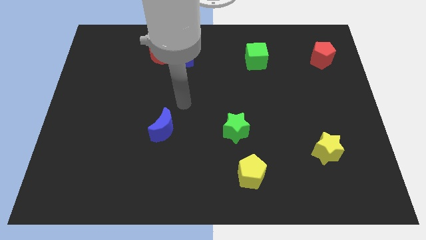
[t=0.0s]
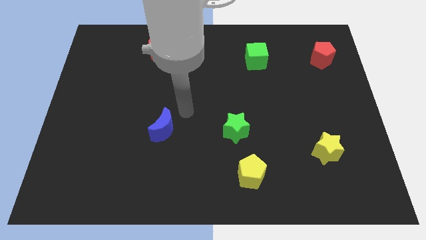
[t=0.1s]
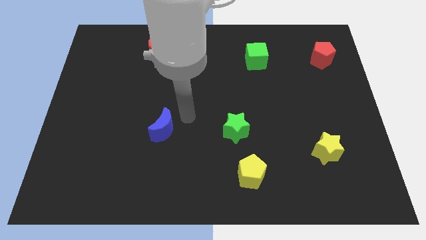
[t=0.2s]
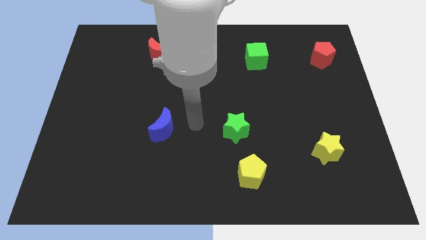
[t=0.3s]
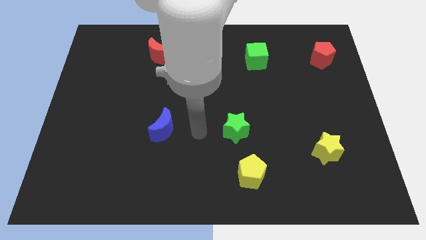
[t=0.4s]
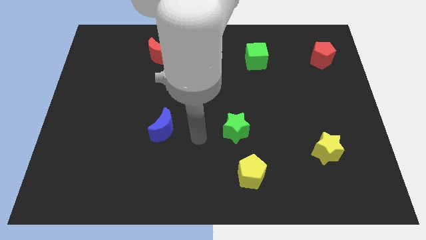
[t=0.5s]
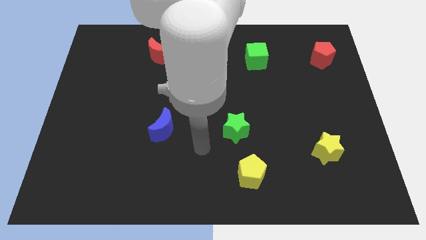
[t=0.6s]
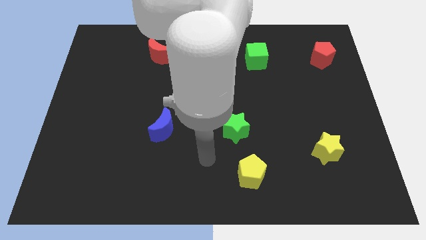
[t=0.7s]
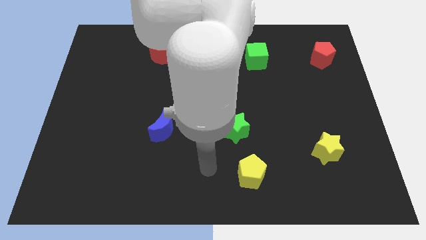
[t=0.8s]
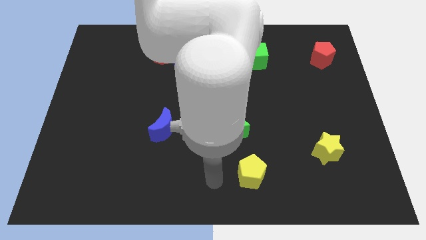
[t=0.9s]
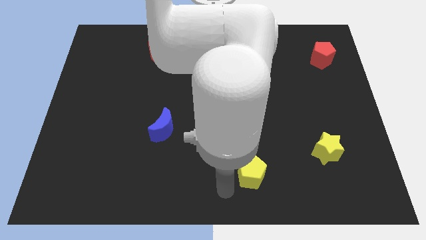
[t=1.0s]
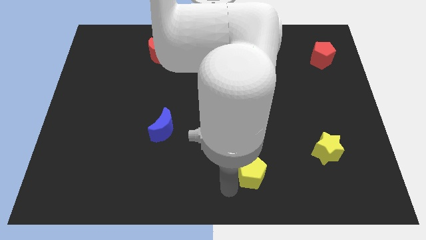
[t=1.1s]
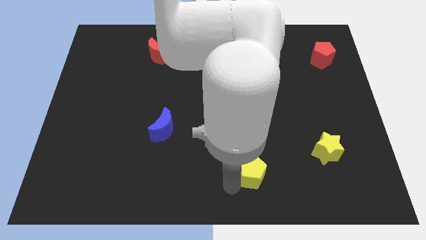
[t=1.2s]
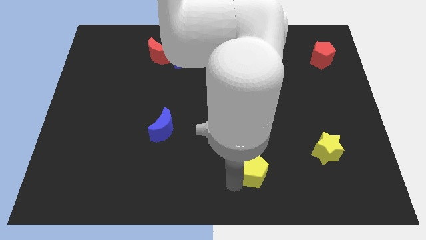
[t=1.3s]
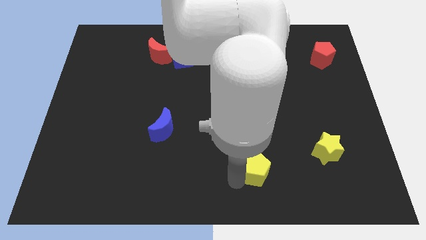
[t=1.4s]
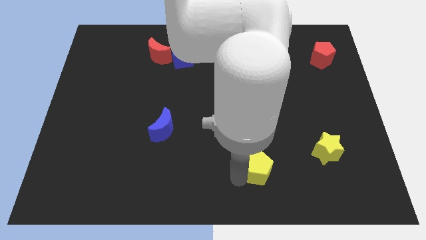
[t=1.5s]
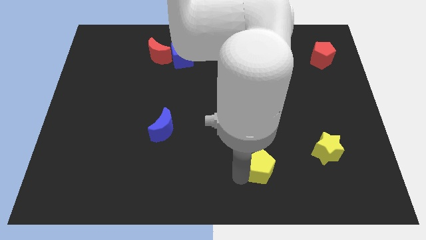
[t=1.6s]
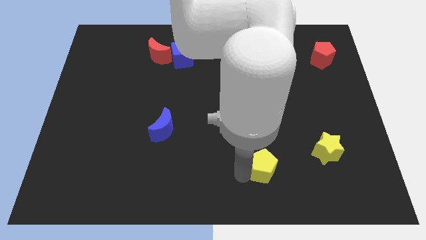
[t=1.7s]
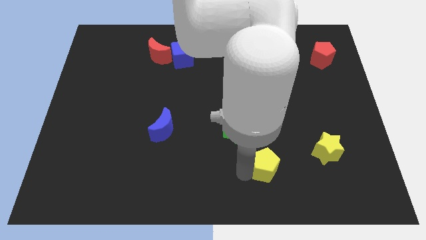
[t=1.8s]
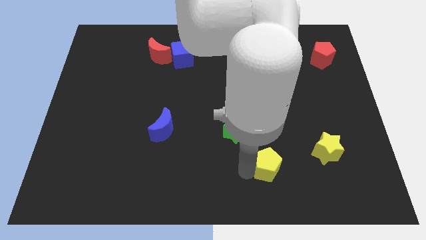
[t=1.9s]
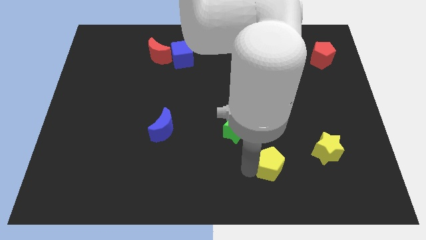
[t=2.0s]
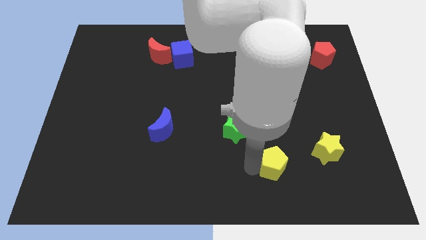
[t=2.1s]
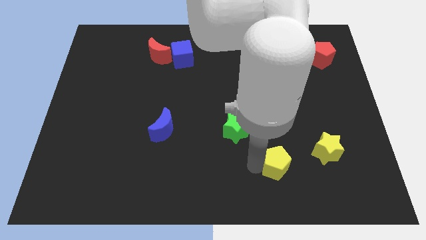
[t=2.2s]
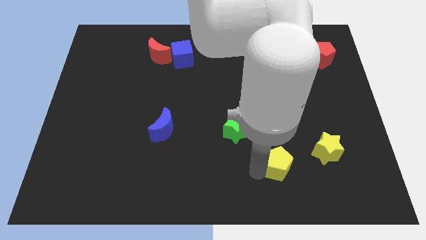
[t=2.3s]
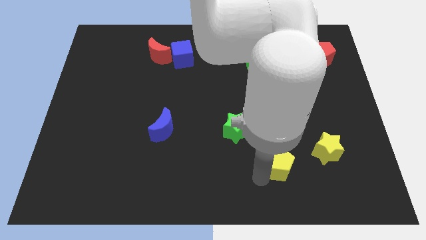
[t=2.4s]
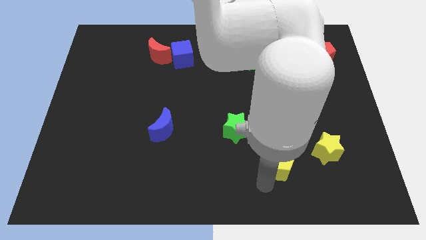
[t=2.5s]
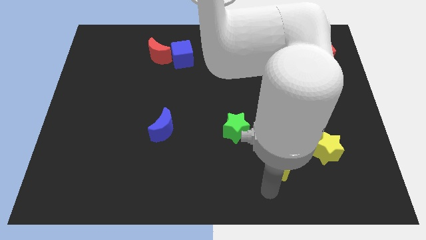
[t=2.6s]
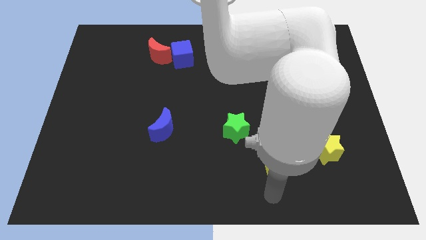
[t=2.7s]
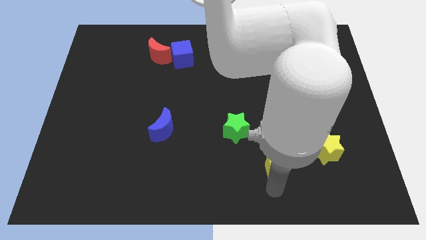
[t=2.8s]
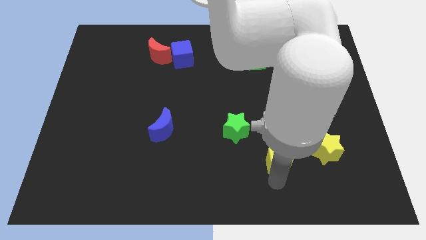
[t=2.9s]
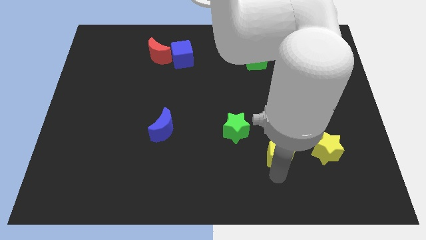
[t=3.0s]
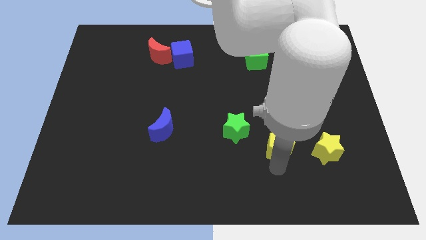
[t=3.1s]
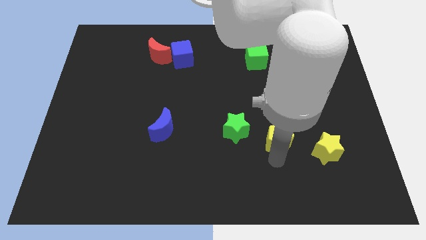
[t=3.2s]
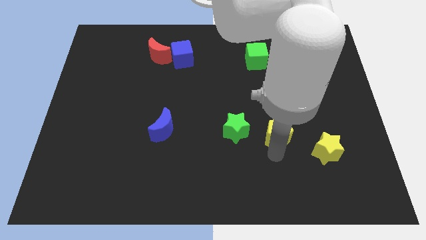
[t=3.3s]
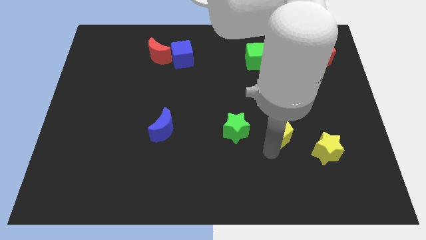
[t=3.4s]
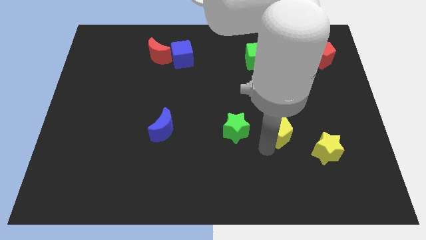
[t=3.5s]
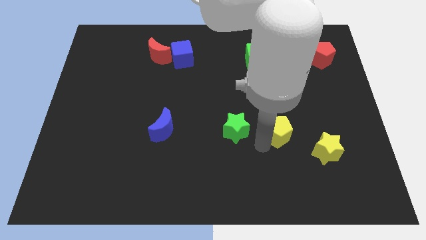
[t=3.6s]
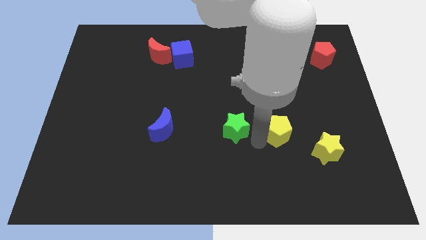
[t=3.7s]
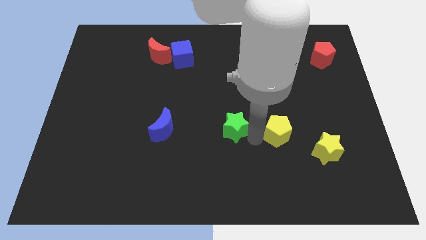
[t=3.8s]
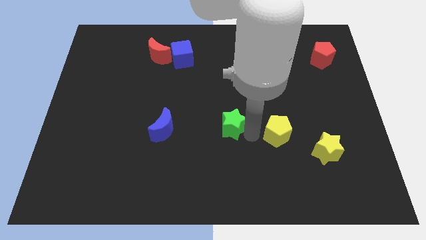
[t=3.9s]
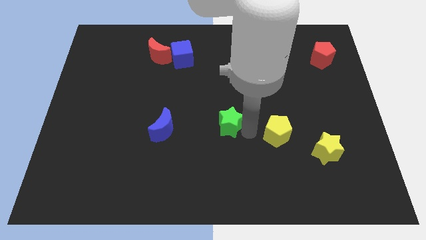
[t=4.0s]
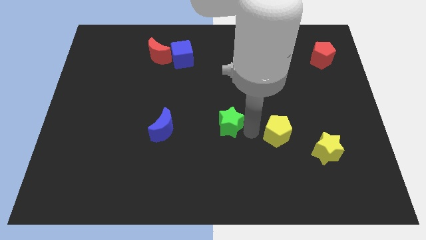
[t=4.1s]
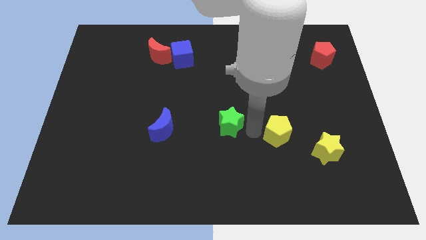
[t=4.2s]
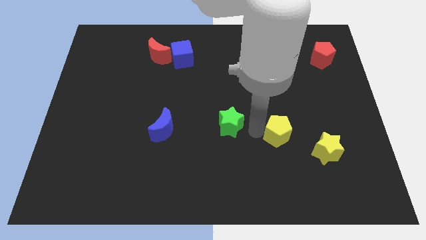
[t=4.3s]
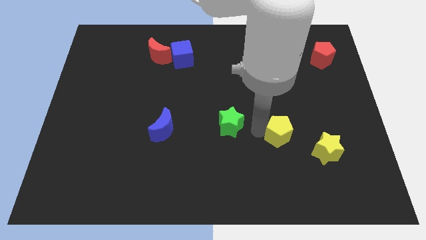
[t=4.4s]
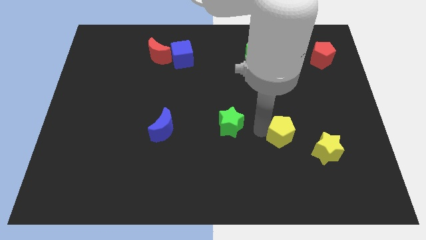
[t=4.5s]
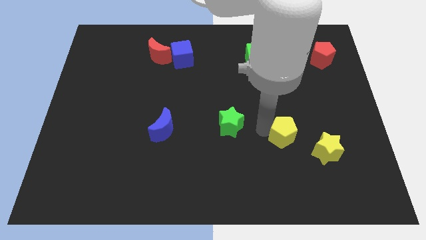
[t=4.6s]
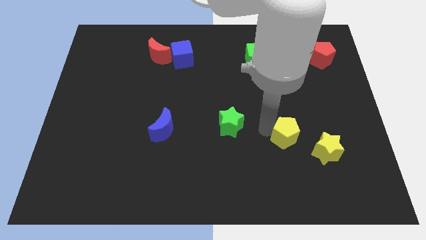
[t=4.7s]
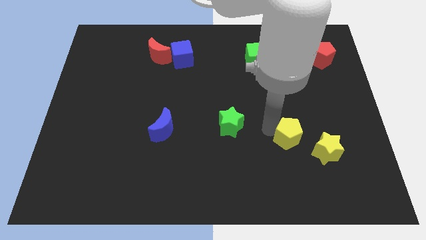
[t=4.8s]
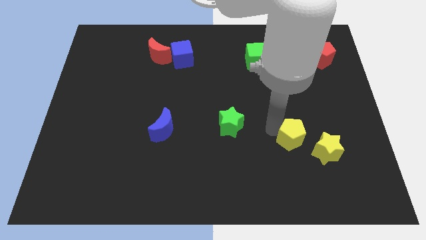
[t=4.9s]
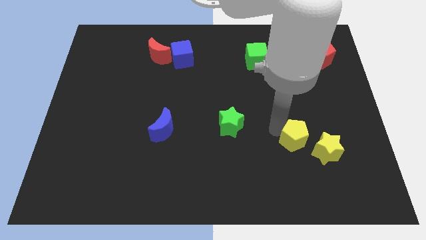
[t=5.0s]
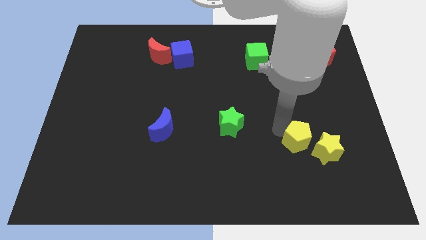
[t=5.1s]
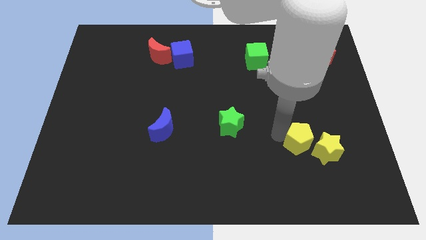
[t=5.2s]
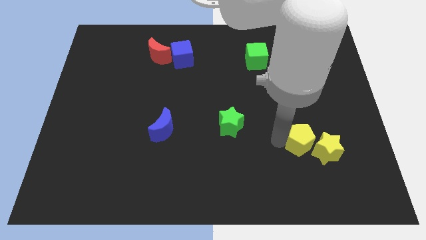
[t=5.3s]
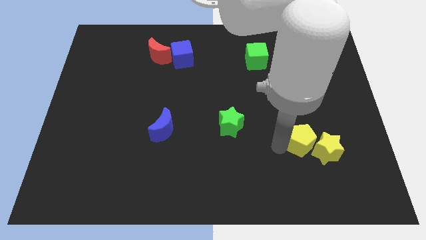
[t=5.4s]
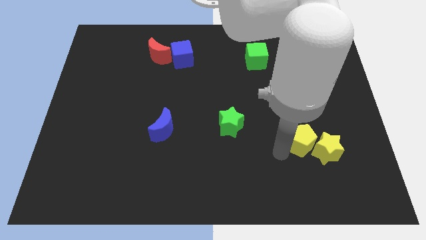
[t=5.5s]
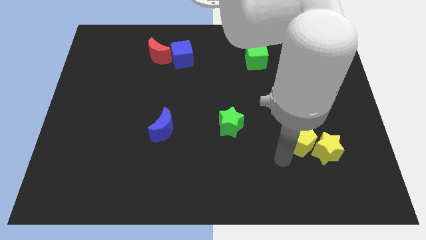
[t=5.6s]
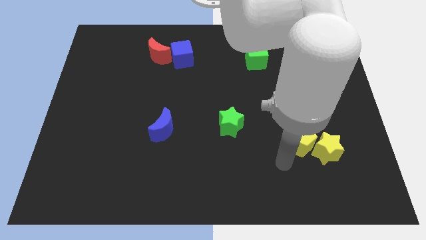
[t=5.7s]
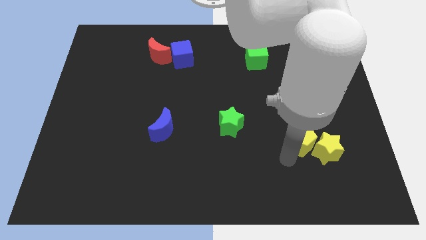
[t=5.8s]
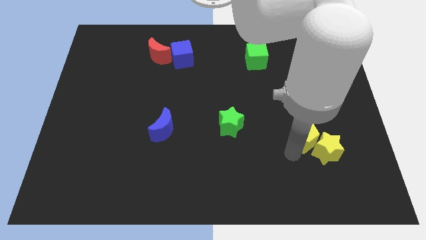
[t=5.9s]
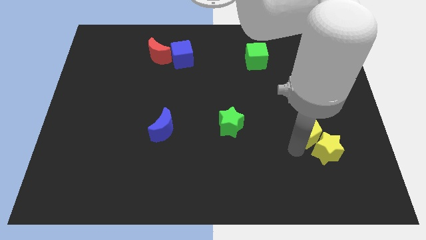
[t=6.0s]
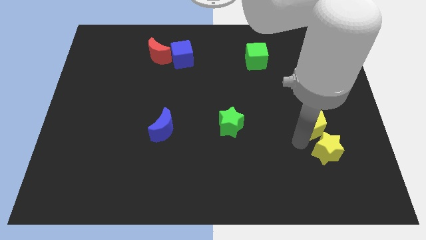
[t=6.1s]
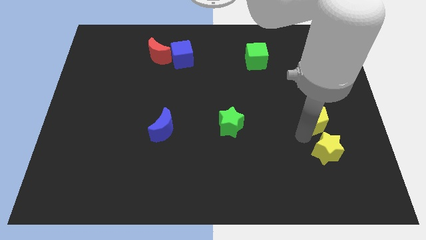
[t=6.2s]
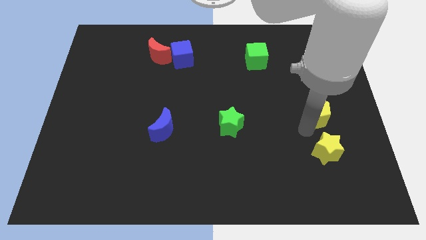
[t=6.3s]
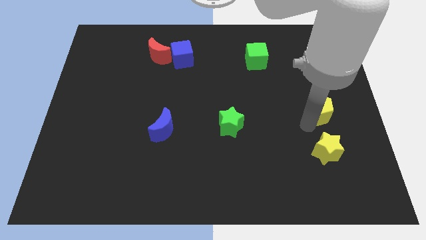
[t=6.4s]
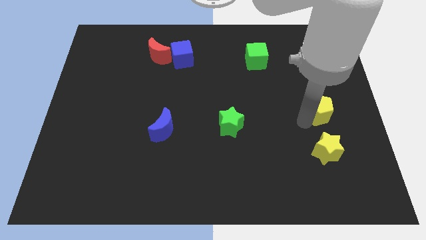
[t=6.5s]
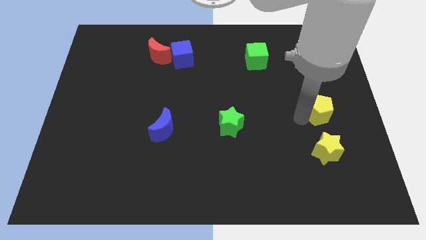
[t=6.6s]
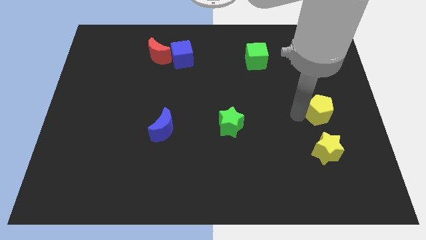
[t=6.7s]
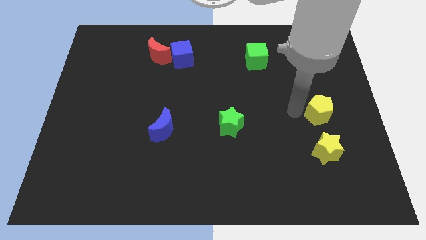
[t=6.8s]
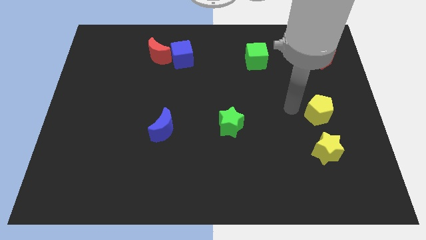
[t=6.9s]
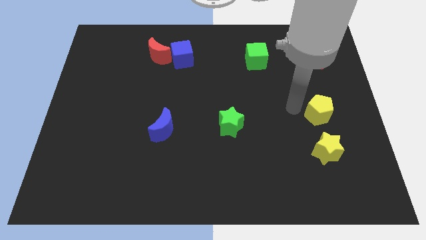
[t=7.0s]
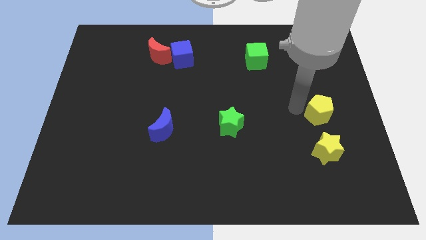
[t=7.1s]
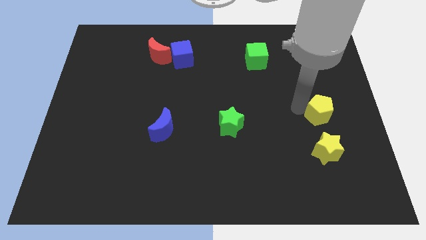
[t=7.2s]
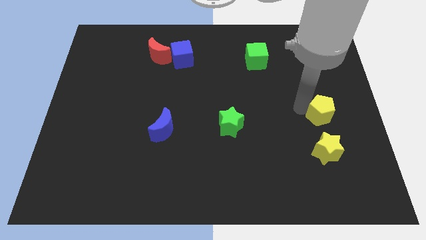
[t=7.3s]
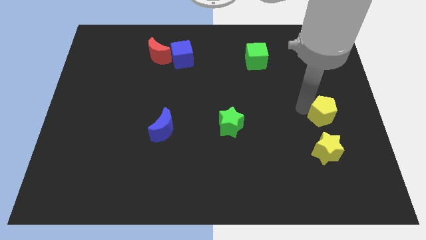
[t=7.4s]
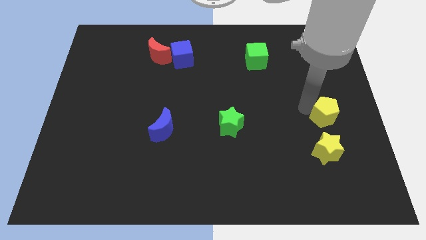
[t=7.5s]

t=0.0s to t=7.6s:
move the yellow pentagon to the center right
